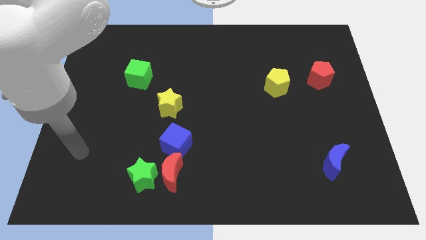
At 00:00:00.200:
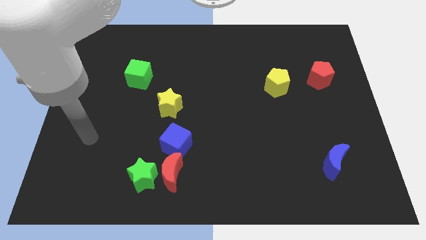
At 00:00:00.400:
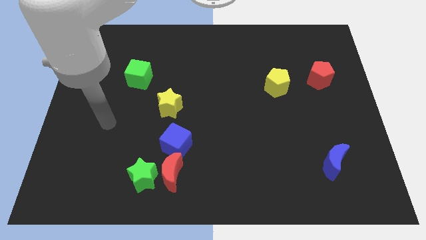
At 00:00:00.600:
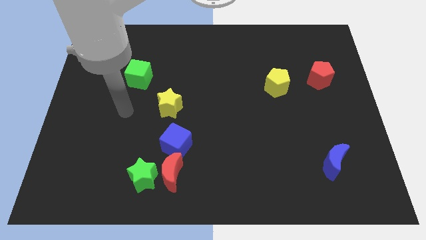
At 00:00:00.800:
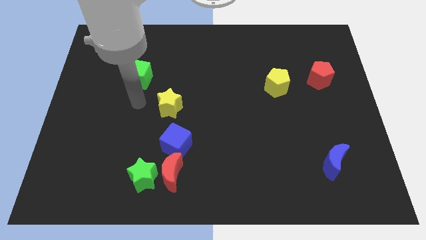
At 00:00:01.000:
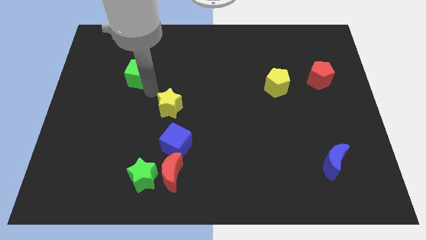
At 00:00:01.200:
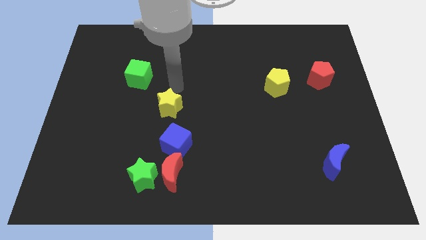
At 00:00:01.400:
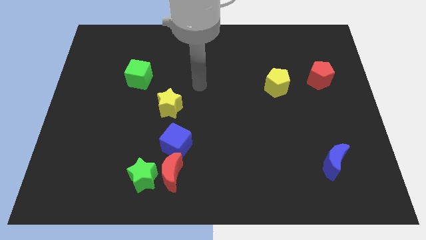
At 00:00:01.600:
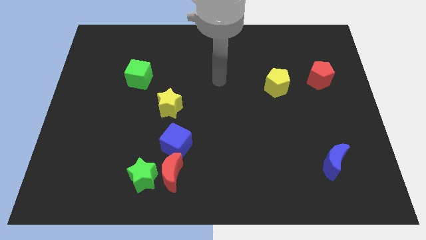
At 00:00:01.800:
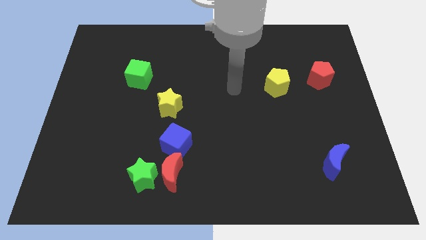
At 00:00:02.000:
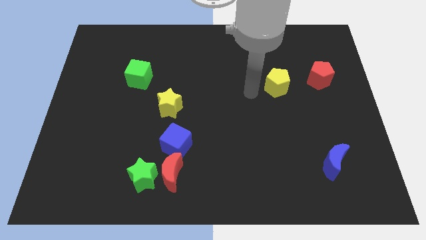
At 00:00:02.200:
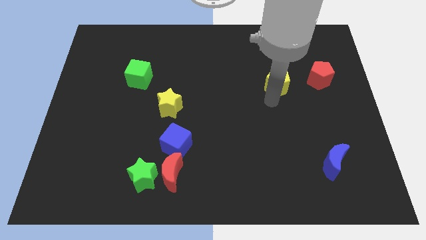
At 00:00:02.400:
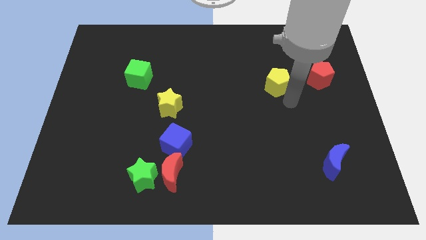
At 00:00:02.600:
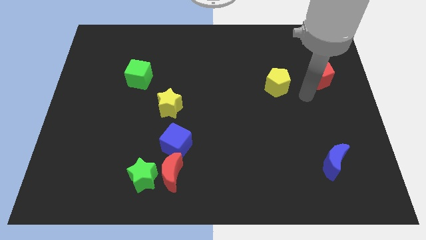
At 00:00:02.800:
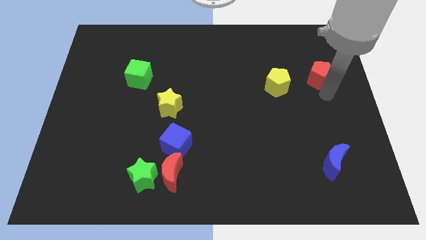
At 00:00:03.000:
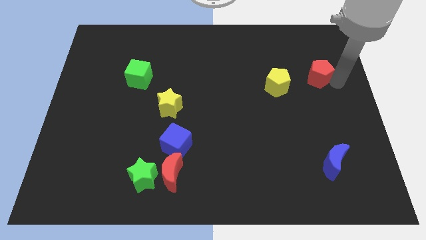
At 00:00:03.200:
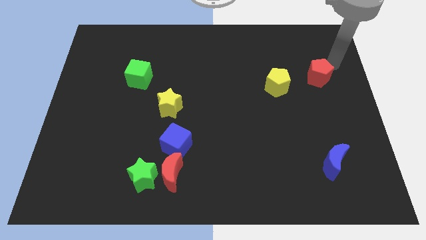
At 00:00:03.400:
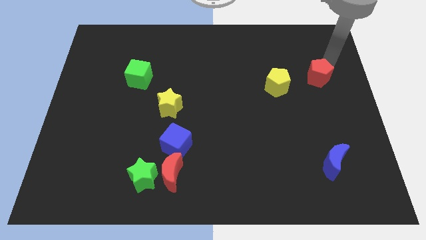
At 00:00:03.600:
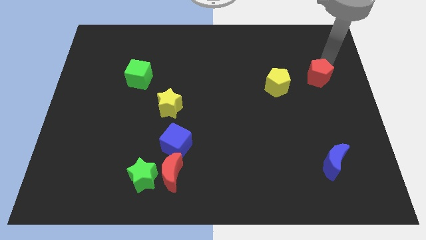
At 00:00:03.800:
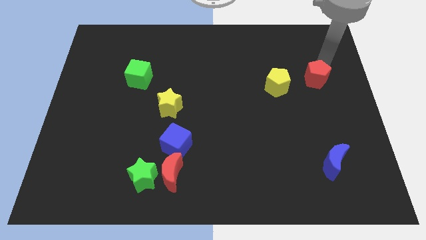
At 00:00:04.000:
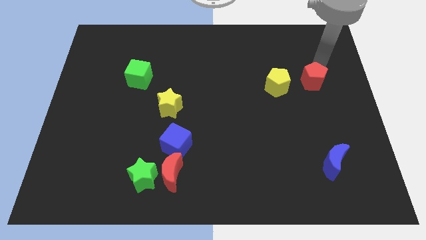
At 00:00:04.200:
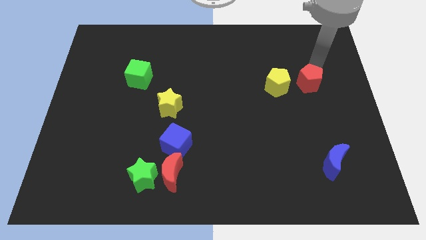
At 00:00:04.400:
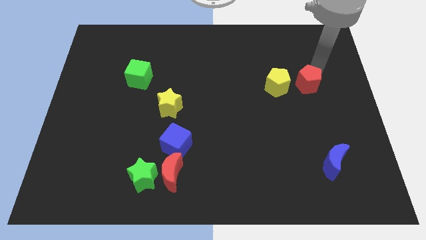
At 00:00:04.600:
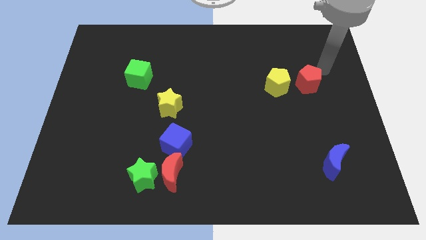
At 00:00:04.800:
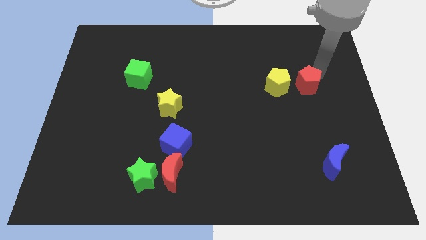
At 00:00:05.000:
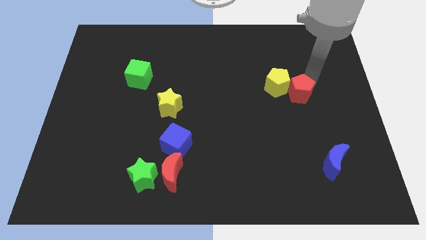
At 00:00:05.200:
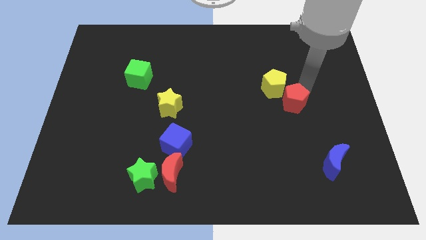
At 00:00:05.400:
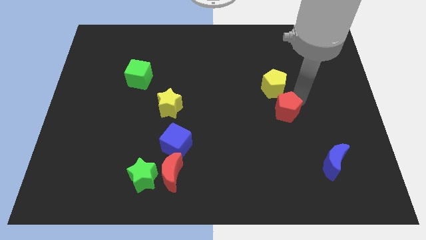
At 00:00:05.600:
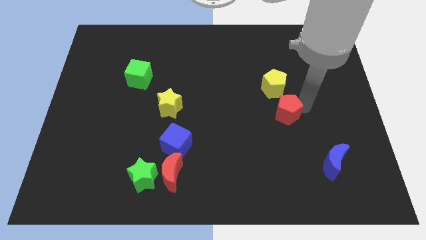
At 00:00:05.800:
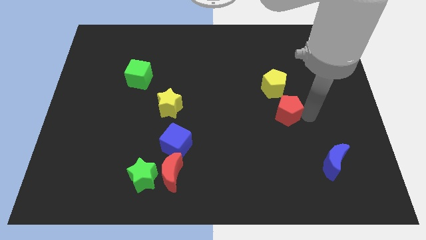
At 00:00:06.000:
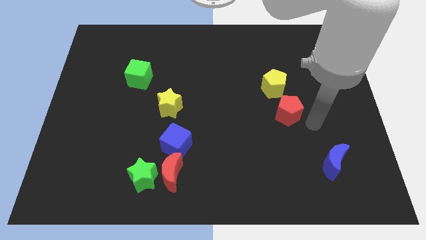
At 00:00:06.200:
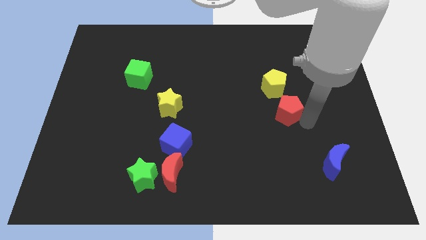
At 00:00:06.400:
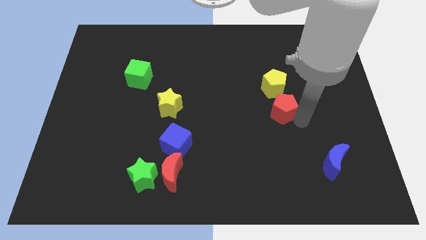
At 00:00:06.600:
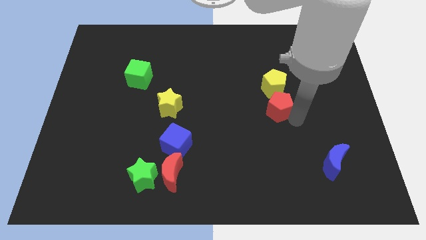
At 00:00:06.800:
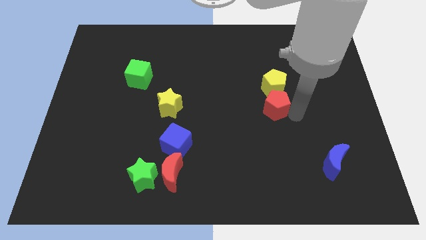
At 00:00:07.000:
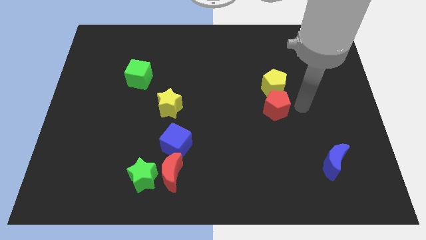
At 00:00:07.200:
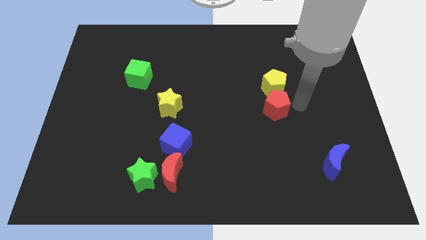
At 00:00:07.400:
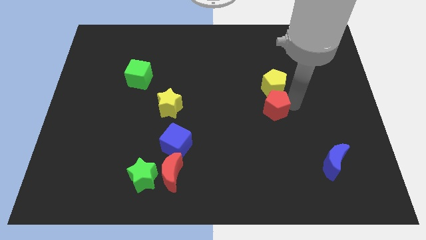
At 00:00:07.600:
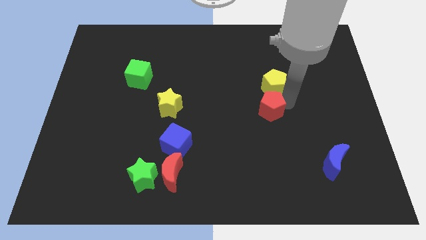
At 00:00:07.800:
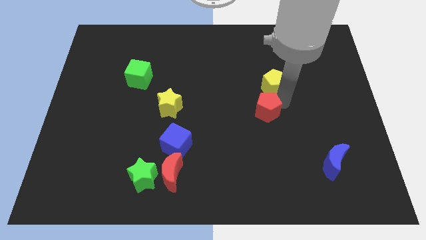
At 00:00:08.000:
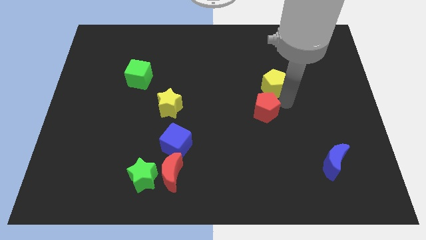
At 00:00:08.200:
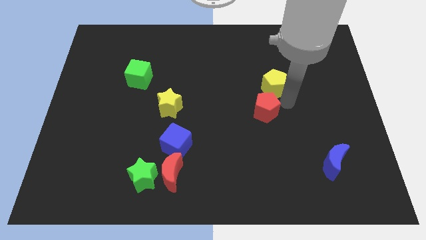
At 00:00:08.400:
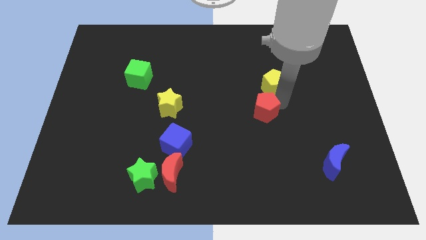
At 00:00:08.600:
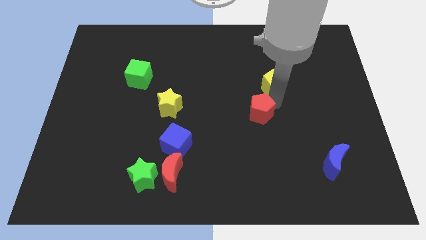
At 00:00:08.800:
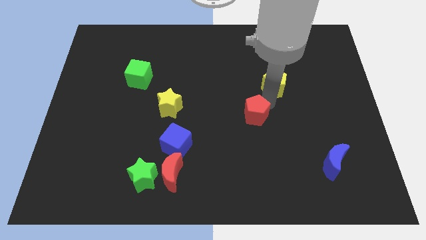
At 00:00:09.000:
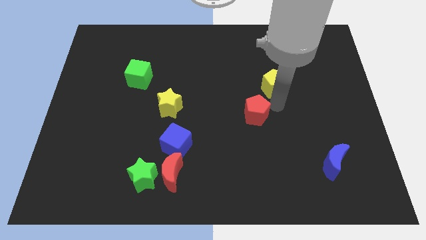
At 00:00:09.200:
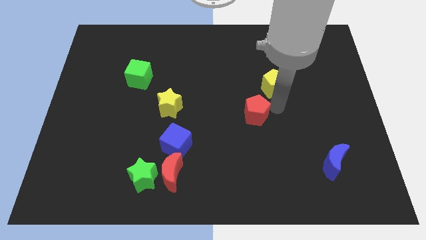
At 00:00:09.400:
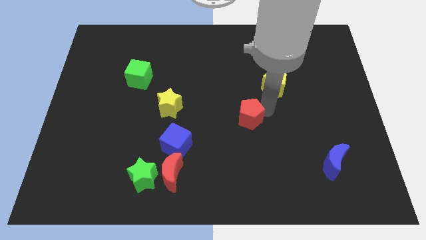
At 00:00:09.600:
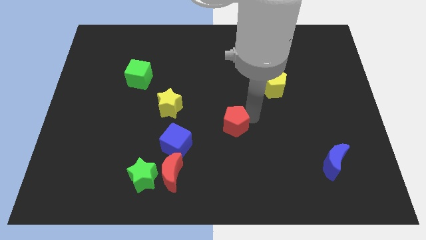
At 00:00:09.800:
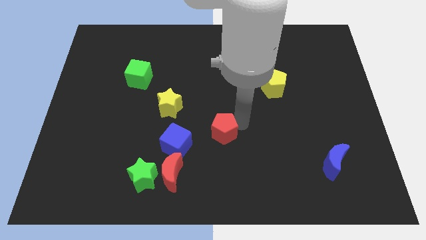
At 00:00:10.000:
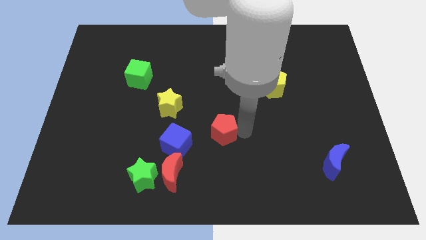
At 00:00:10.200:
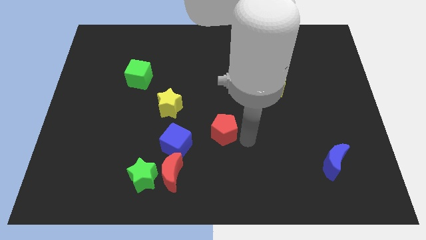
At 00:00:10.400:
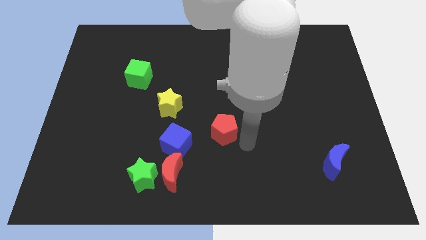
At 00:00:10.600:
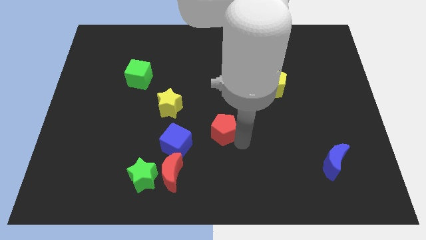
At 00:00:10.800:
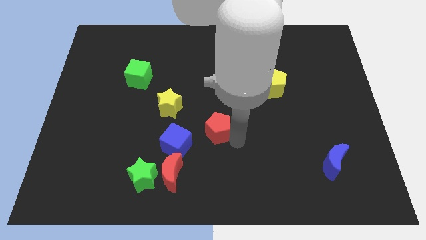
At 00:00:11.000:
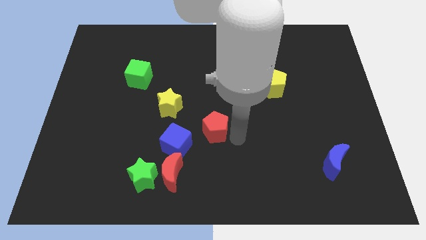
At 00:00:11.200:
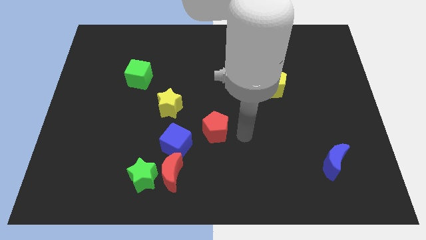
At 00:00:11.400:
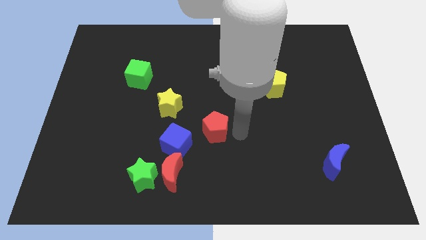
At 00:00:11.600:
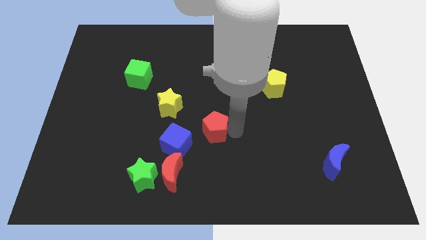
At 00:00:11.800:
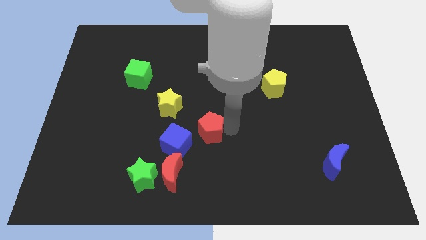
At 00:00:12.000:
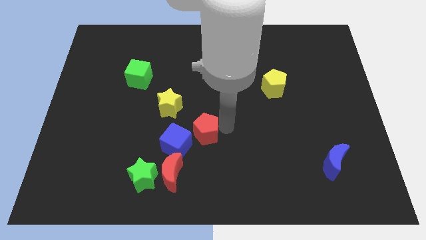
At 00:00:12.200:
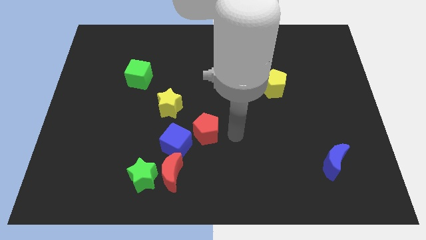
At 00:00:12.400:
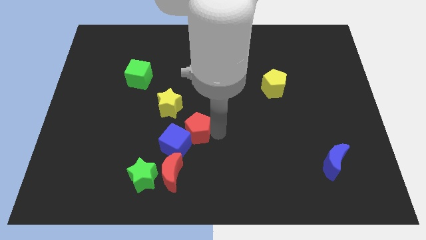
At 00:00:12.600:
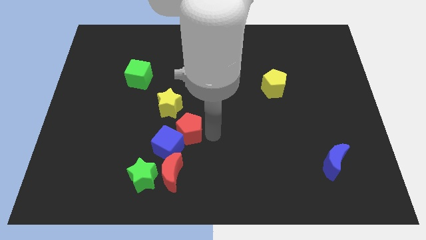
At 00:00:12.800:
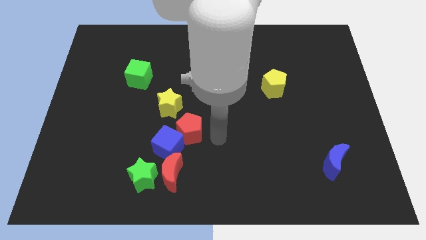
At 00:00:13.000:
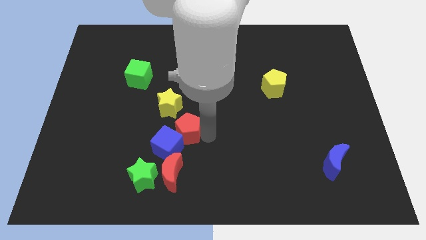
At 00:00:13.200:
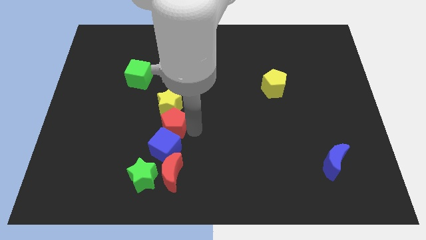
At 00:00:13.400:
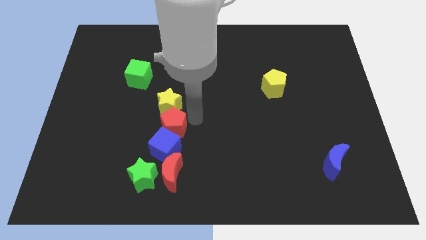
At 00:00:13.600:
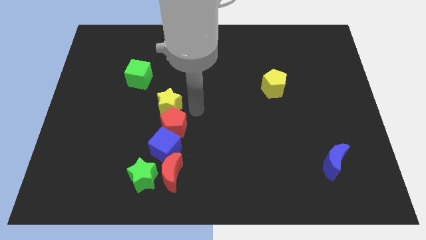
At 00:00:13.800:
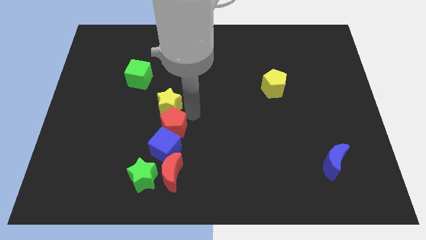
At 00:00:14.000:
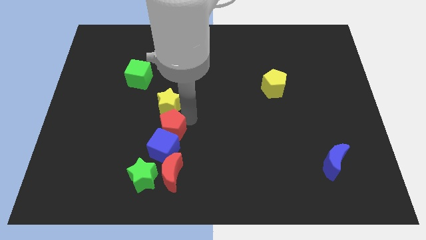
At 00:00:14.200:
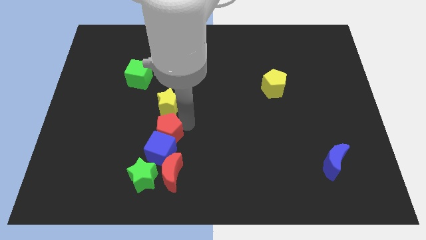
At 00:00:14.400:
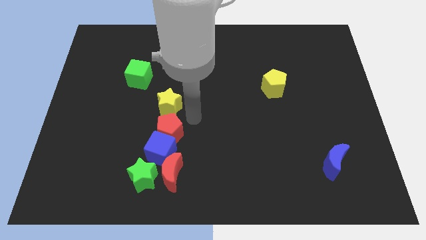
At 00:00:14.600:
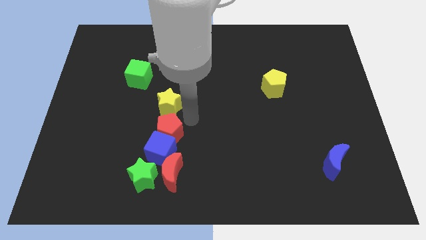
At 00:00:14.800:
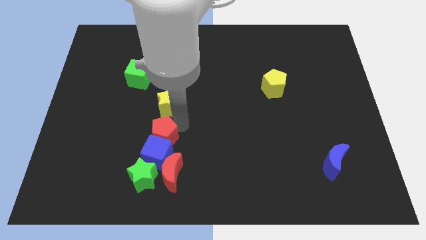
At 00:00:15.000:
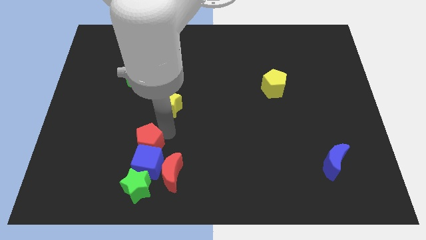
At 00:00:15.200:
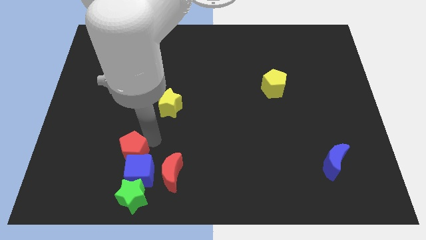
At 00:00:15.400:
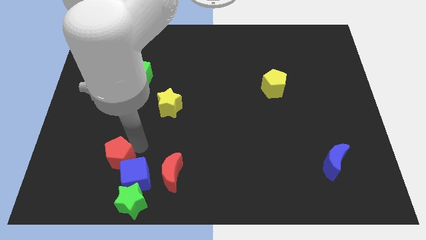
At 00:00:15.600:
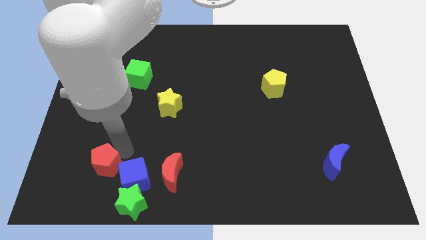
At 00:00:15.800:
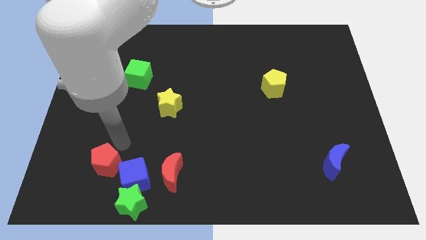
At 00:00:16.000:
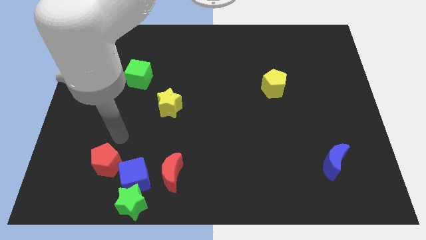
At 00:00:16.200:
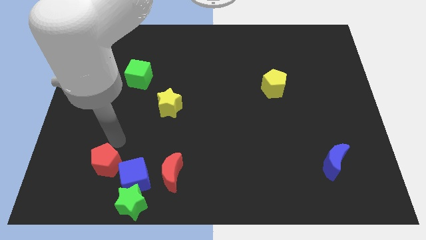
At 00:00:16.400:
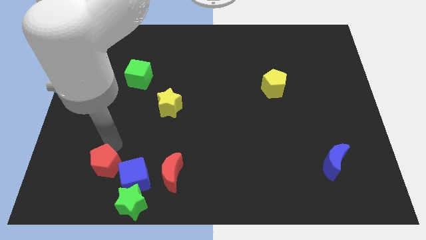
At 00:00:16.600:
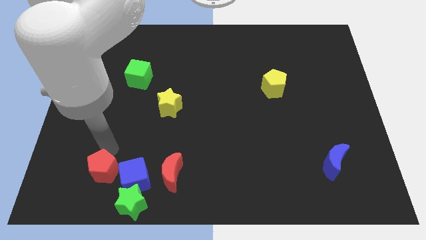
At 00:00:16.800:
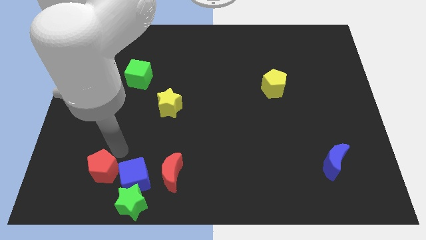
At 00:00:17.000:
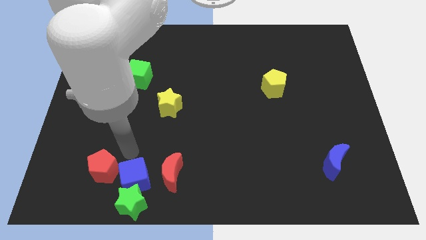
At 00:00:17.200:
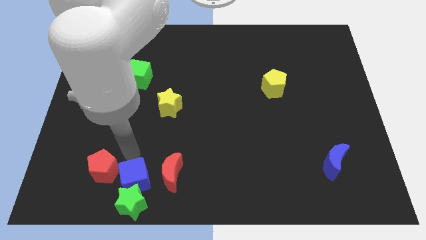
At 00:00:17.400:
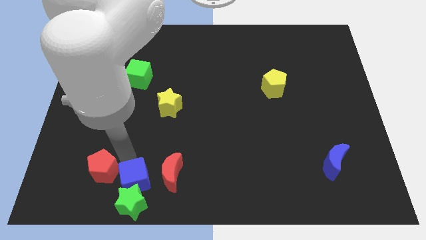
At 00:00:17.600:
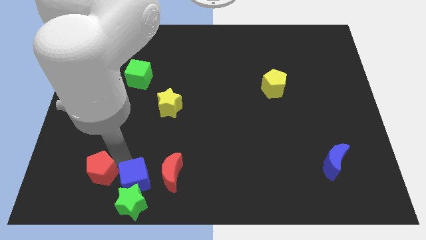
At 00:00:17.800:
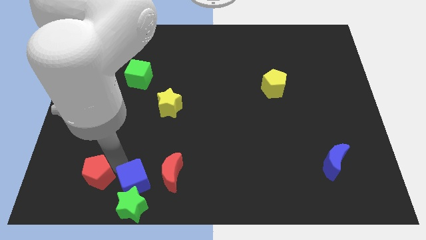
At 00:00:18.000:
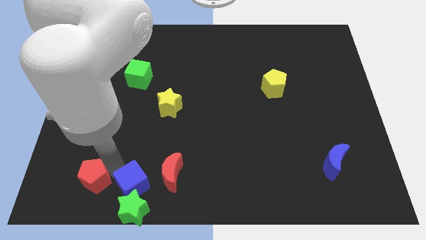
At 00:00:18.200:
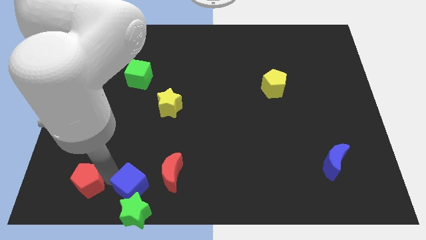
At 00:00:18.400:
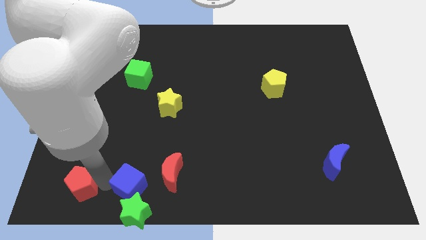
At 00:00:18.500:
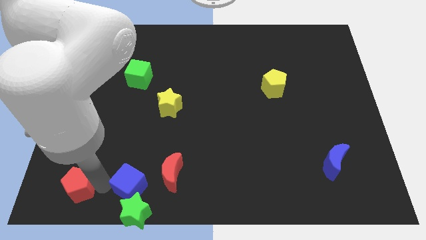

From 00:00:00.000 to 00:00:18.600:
push the red pentagon to the bottom left corner
